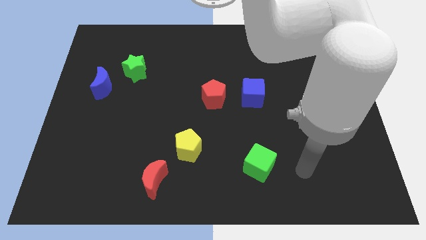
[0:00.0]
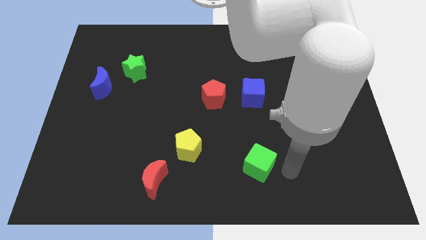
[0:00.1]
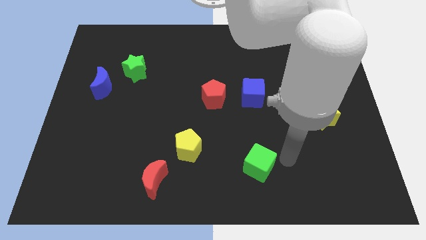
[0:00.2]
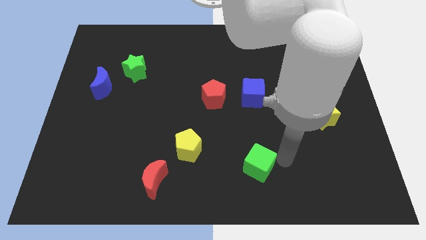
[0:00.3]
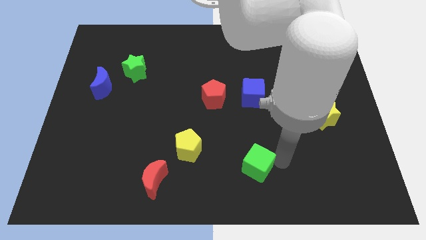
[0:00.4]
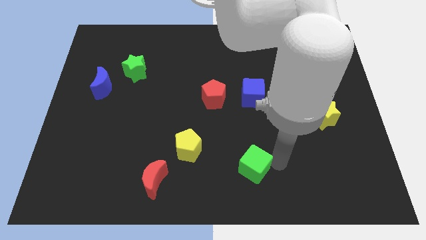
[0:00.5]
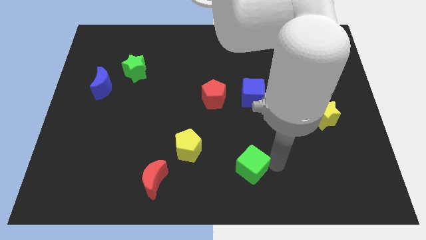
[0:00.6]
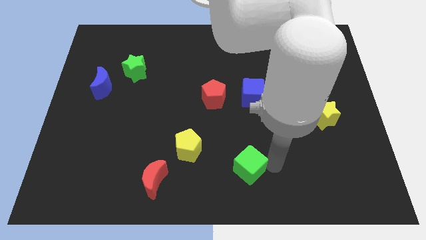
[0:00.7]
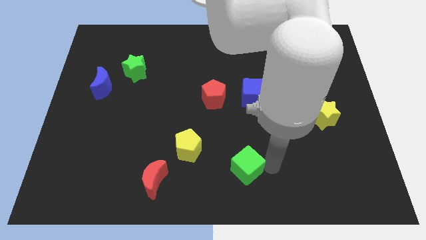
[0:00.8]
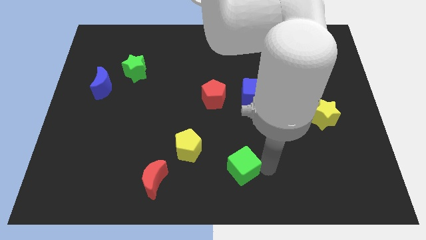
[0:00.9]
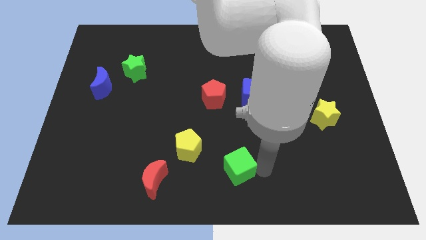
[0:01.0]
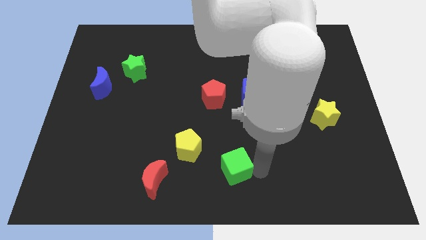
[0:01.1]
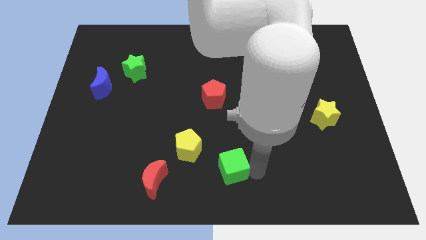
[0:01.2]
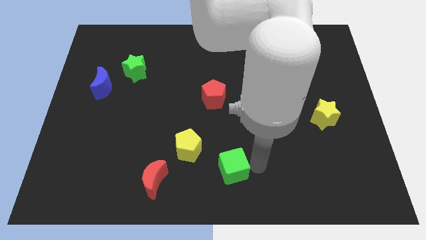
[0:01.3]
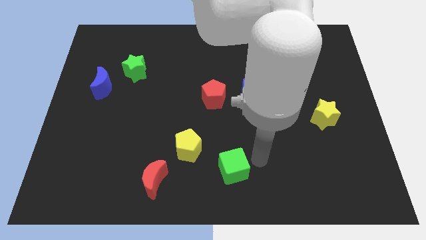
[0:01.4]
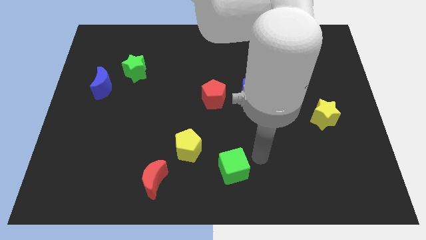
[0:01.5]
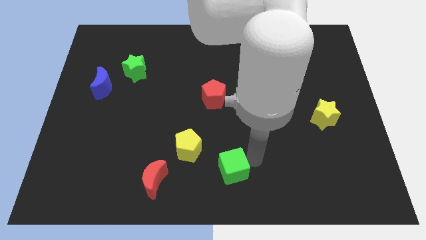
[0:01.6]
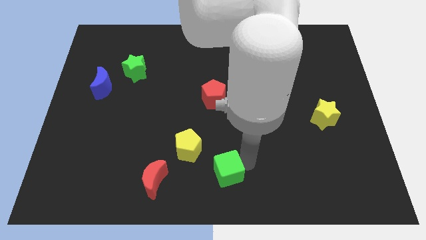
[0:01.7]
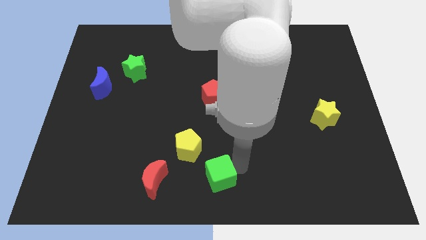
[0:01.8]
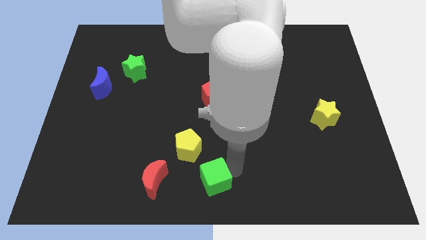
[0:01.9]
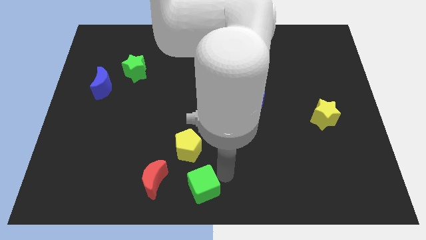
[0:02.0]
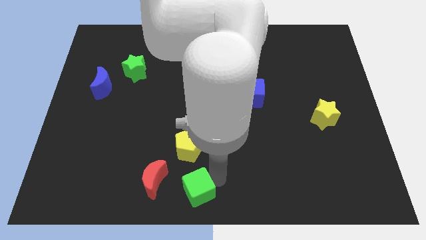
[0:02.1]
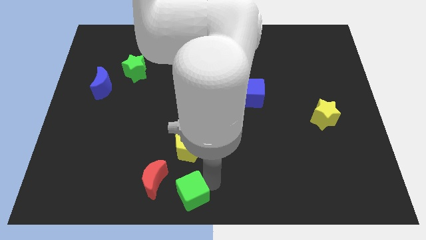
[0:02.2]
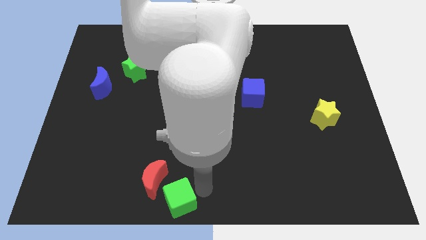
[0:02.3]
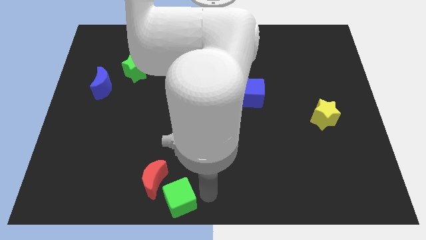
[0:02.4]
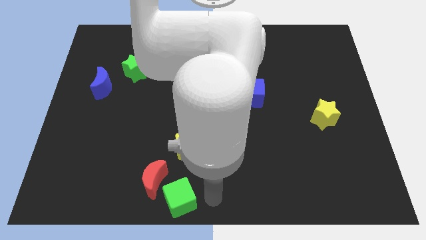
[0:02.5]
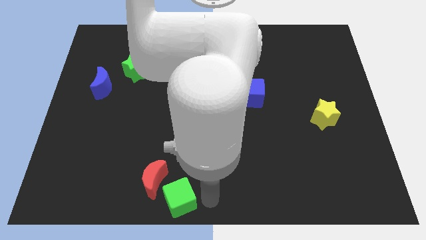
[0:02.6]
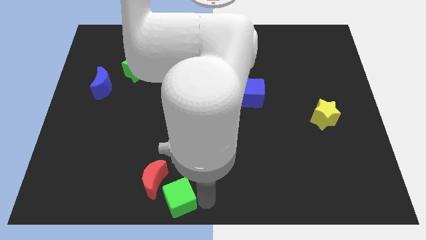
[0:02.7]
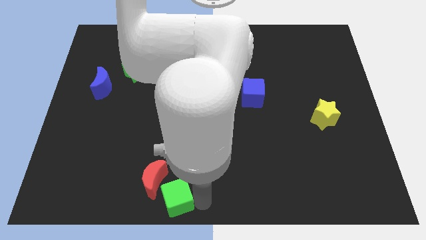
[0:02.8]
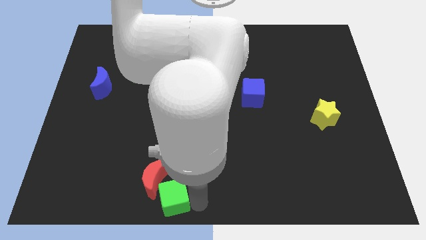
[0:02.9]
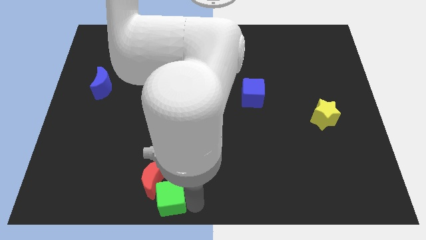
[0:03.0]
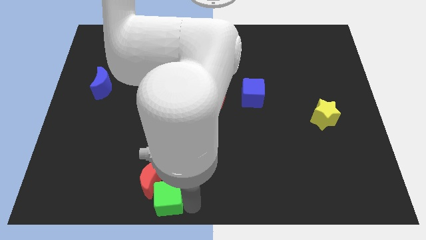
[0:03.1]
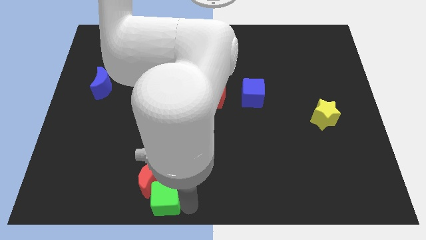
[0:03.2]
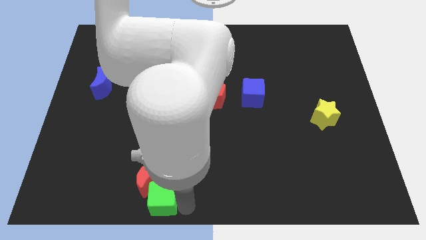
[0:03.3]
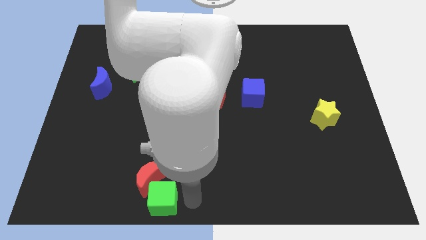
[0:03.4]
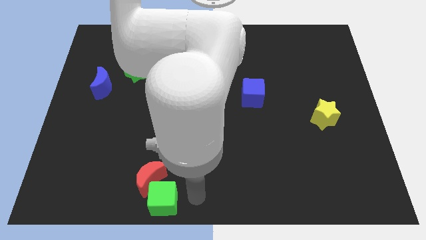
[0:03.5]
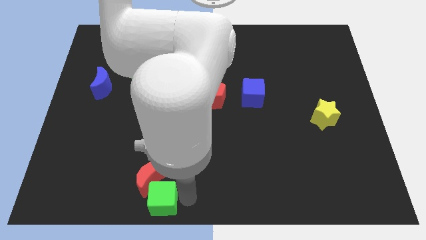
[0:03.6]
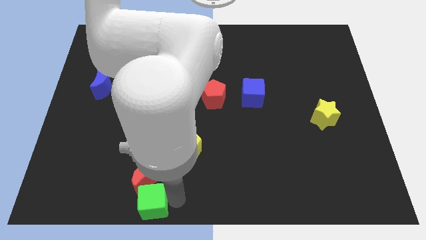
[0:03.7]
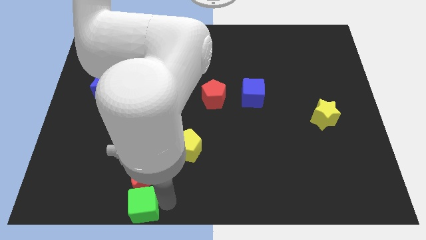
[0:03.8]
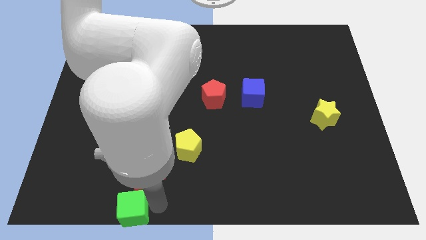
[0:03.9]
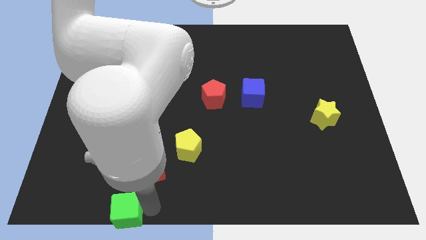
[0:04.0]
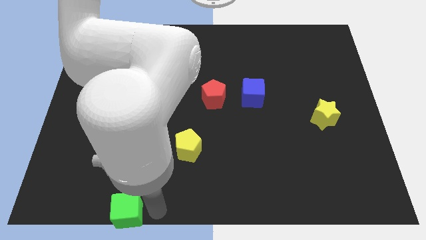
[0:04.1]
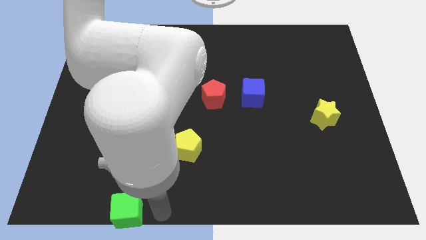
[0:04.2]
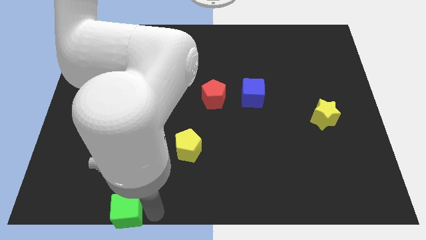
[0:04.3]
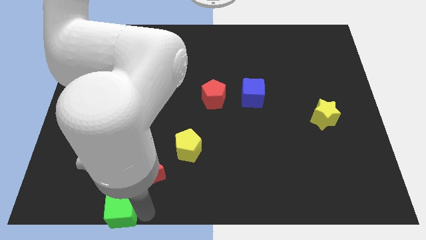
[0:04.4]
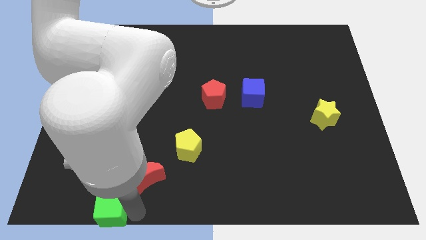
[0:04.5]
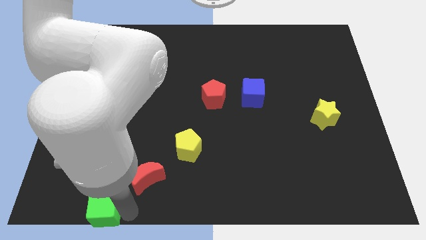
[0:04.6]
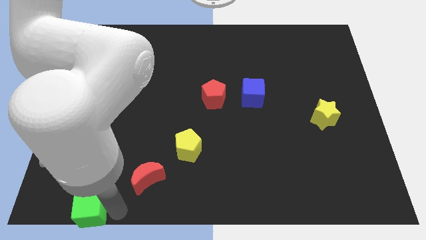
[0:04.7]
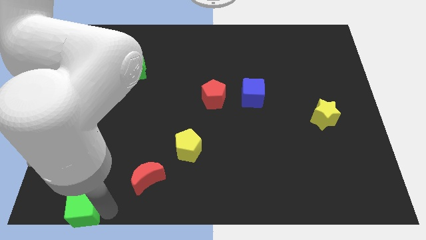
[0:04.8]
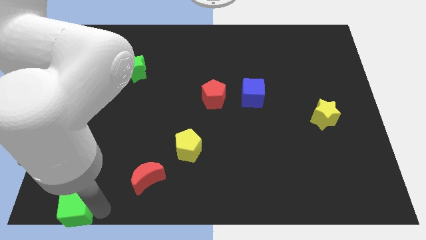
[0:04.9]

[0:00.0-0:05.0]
push the green cube to the lower left corner
